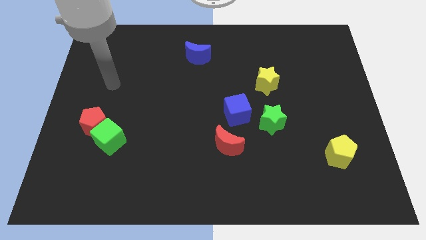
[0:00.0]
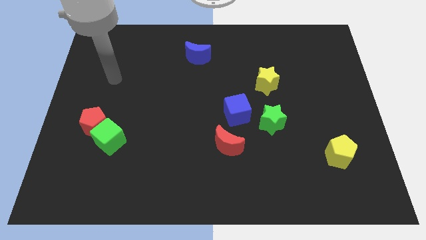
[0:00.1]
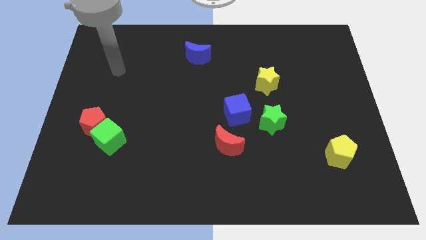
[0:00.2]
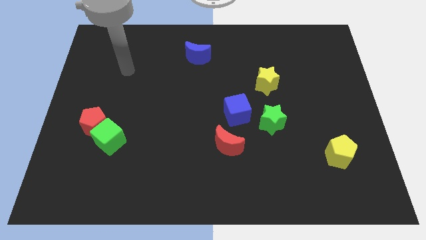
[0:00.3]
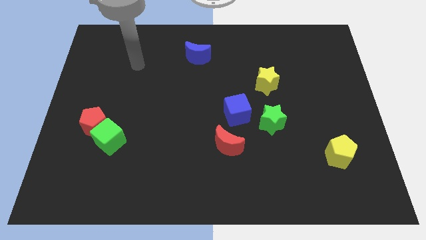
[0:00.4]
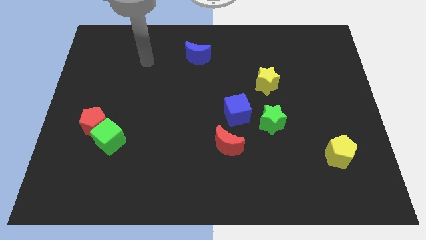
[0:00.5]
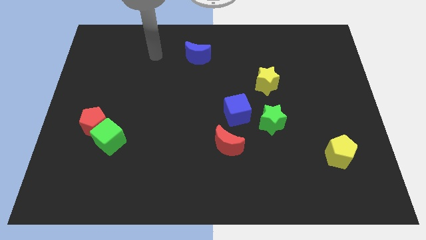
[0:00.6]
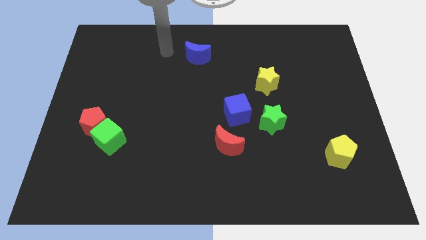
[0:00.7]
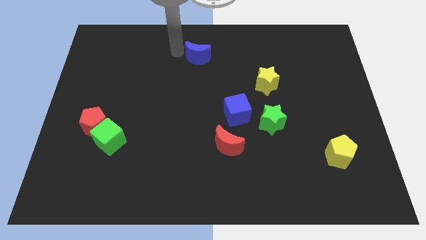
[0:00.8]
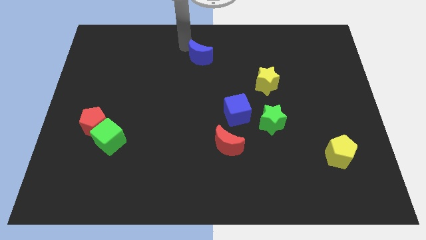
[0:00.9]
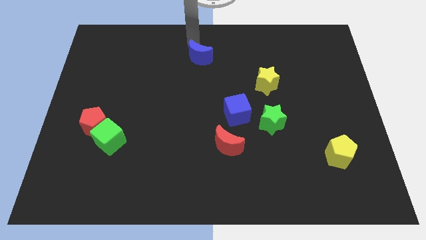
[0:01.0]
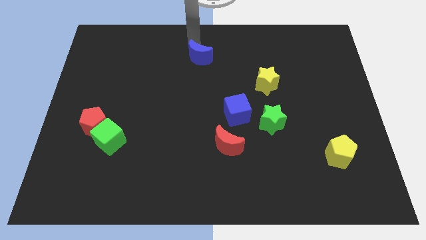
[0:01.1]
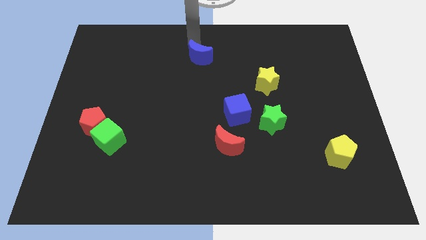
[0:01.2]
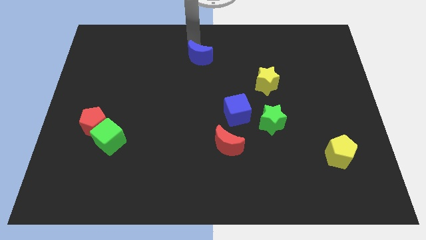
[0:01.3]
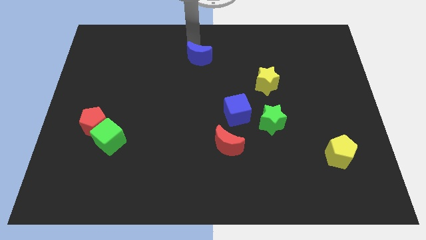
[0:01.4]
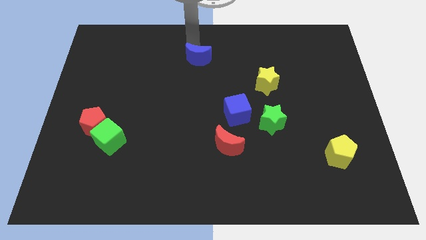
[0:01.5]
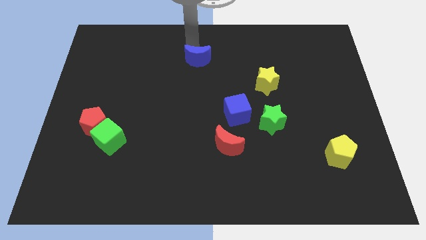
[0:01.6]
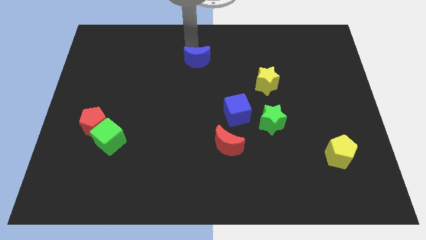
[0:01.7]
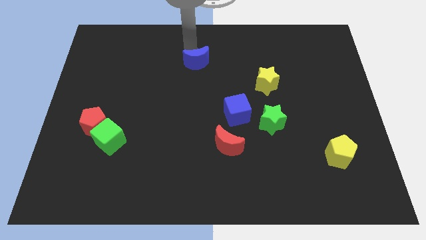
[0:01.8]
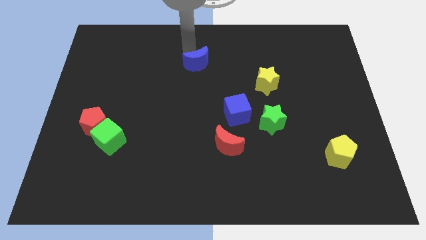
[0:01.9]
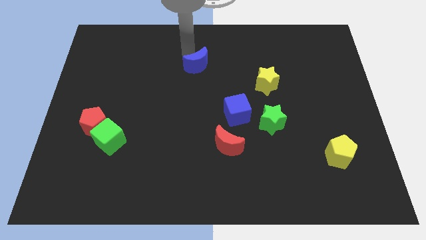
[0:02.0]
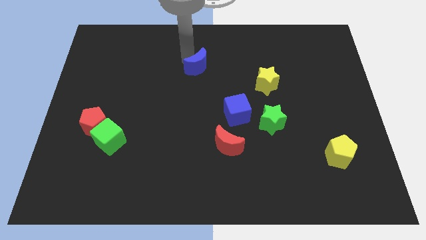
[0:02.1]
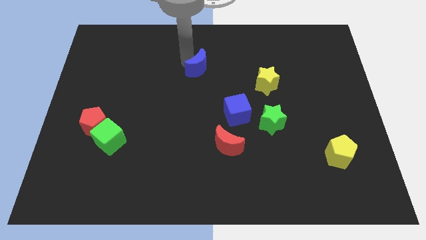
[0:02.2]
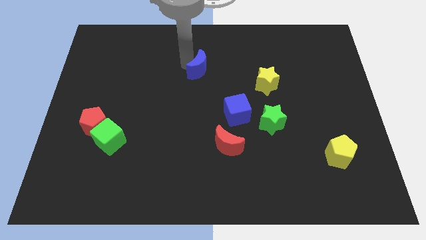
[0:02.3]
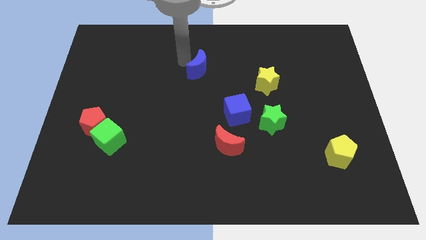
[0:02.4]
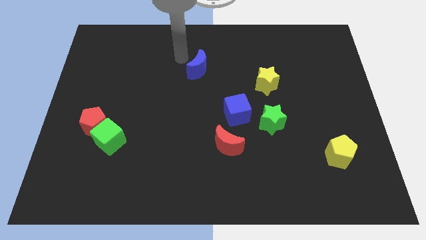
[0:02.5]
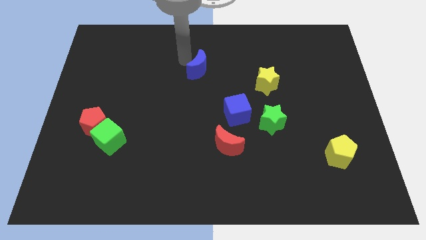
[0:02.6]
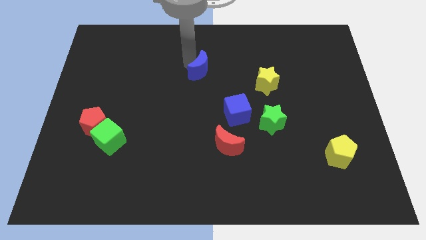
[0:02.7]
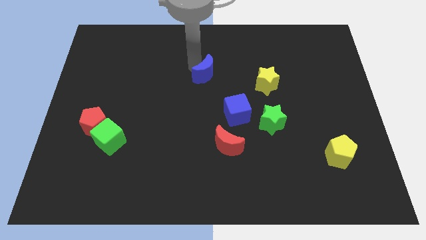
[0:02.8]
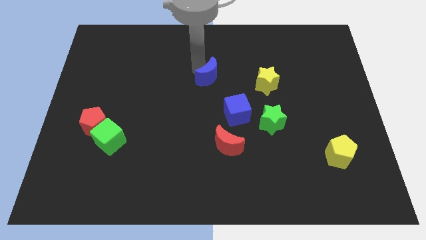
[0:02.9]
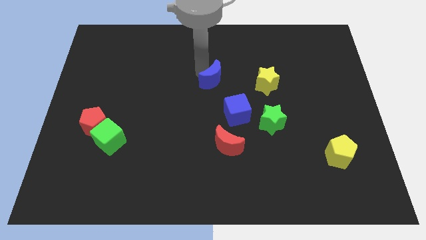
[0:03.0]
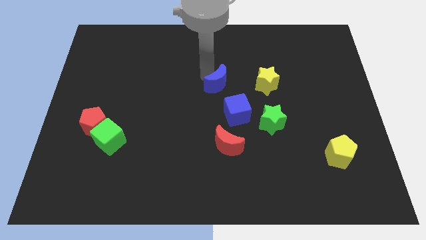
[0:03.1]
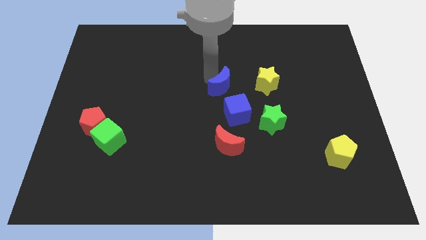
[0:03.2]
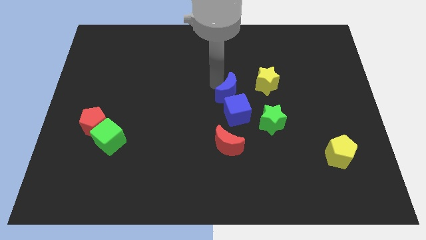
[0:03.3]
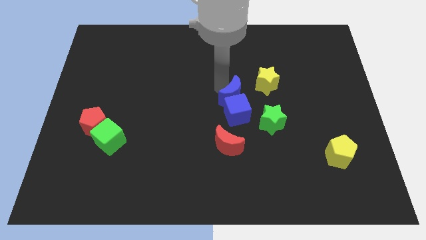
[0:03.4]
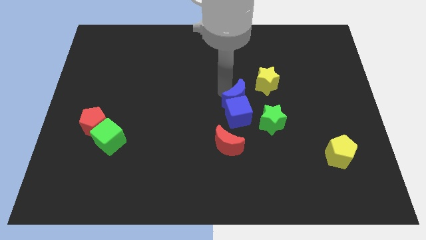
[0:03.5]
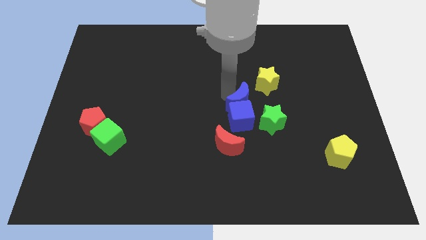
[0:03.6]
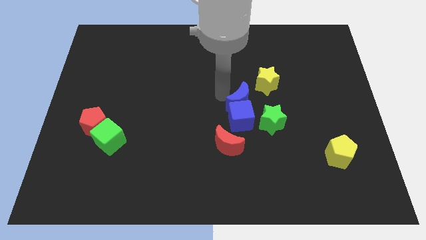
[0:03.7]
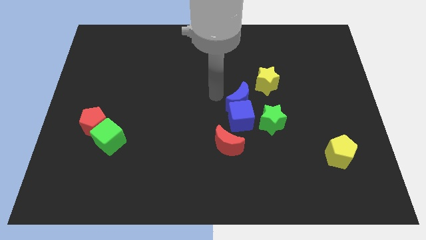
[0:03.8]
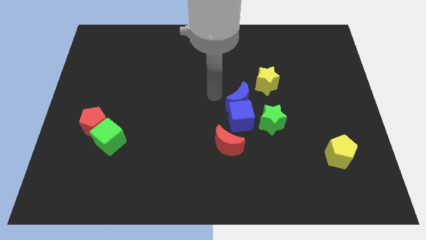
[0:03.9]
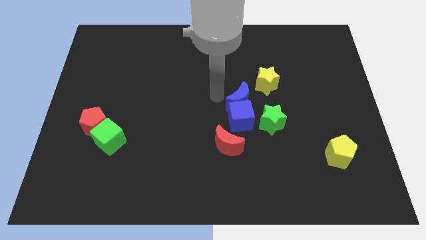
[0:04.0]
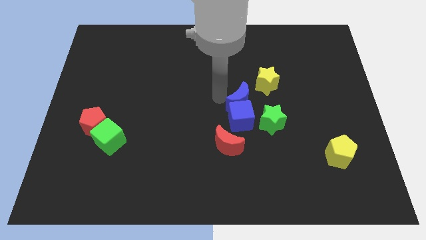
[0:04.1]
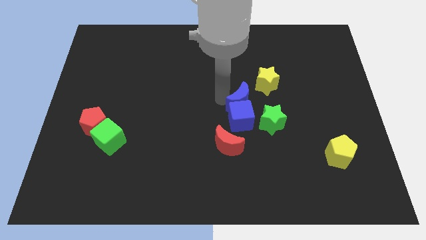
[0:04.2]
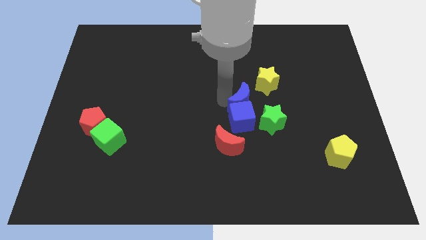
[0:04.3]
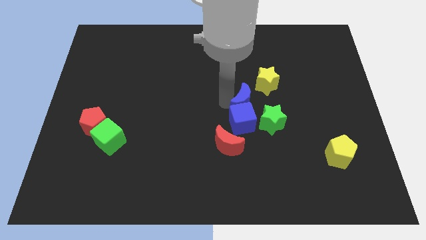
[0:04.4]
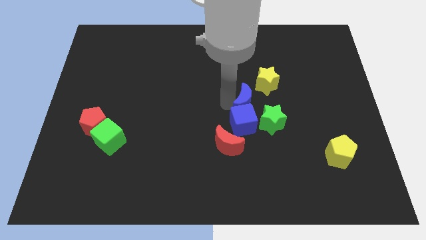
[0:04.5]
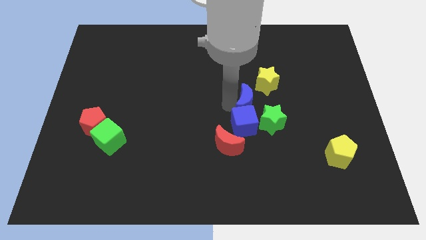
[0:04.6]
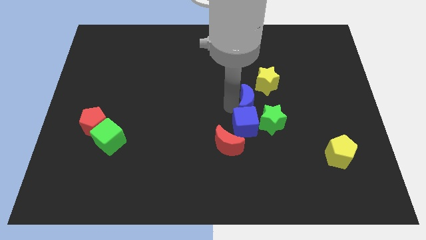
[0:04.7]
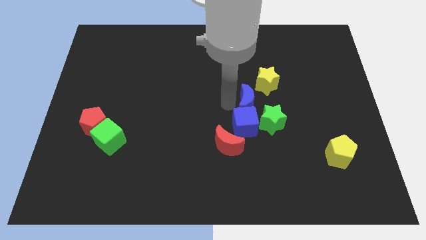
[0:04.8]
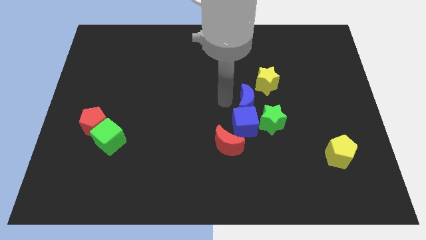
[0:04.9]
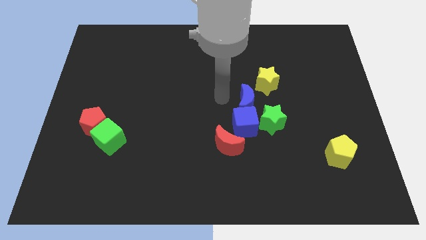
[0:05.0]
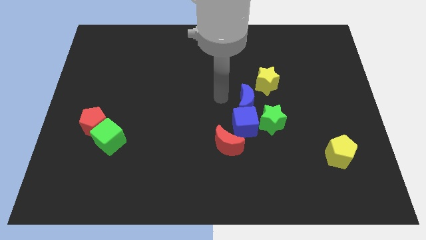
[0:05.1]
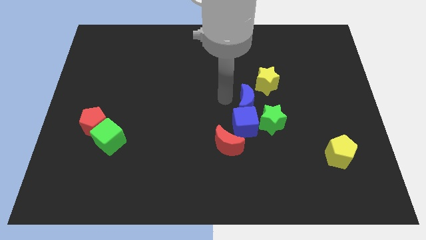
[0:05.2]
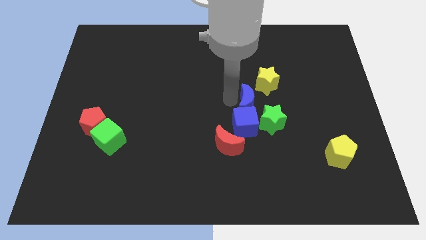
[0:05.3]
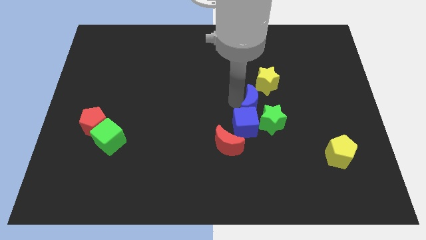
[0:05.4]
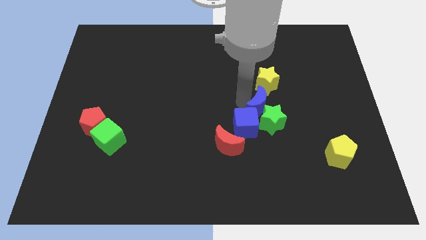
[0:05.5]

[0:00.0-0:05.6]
push the blue moon close to the green star

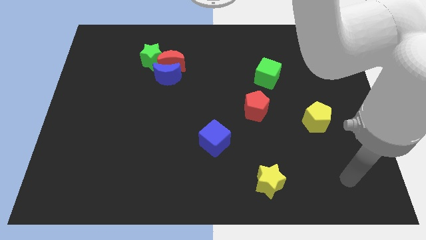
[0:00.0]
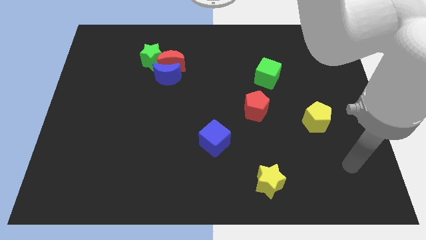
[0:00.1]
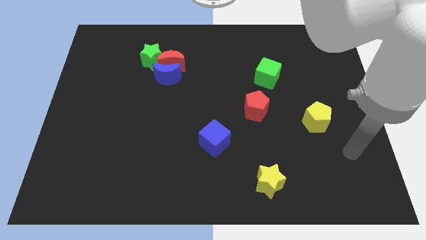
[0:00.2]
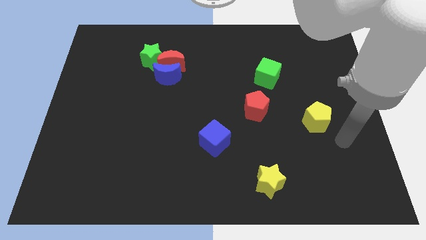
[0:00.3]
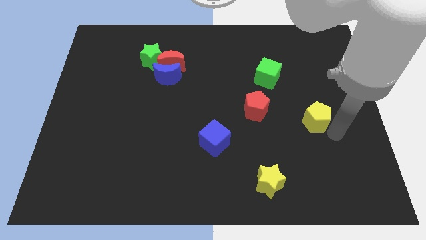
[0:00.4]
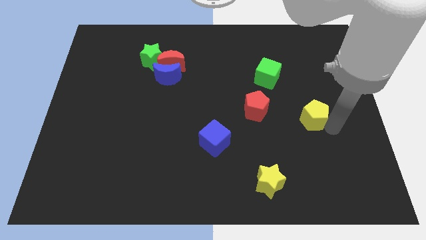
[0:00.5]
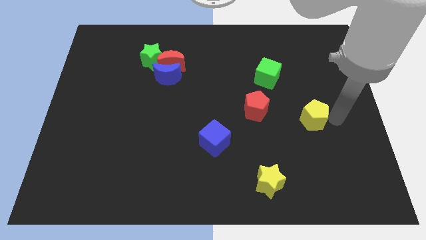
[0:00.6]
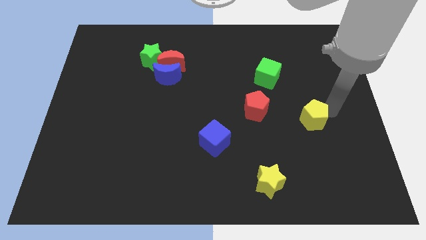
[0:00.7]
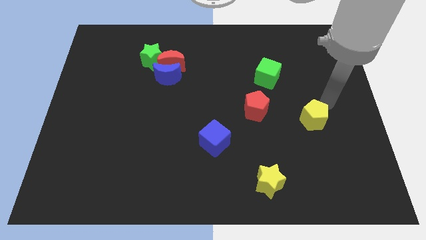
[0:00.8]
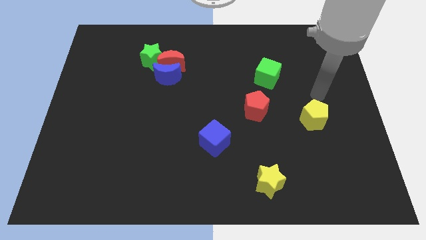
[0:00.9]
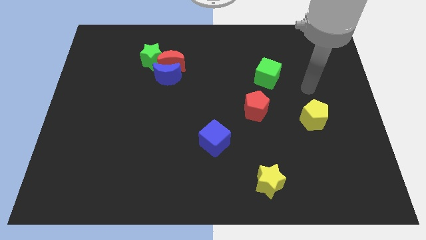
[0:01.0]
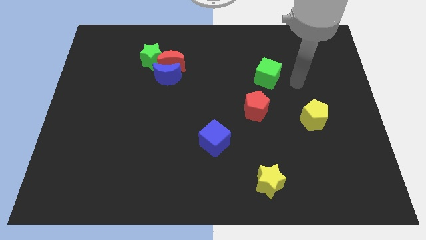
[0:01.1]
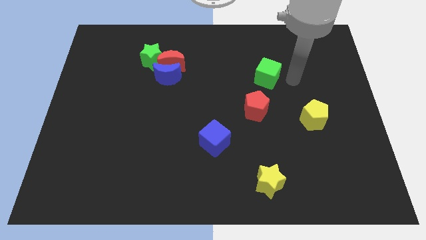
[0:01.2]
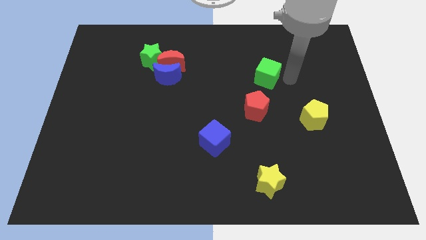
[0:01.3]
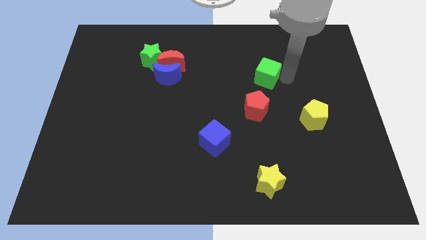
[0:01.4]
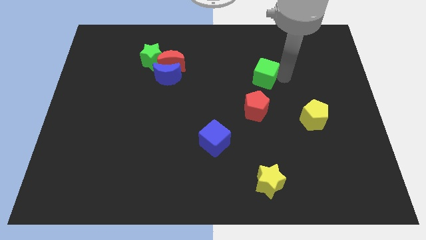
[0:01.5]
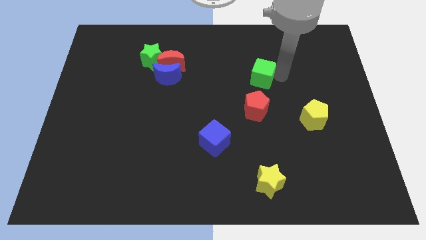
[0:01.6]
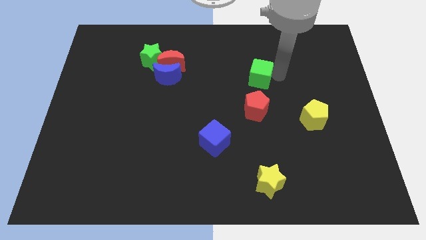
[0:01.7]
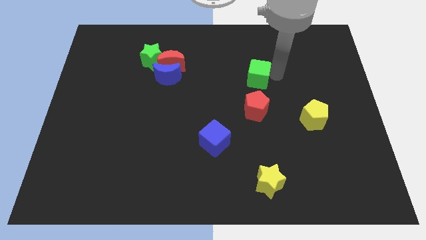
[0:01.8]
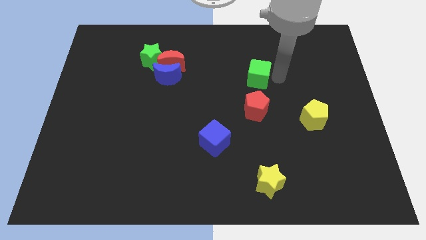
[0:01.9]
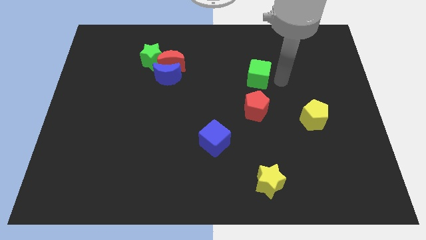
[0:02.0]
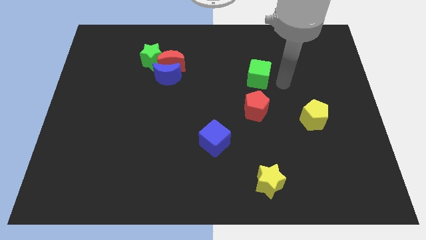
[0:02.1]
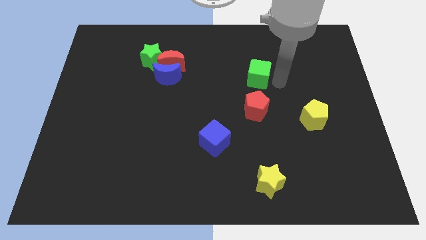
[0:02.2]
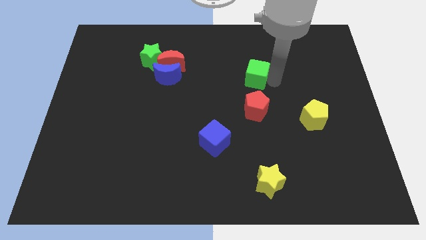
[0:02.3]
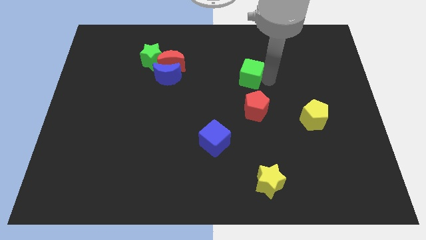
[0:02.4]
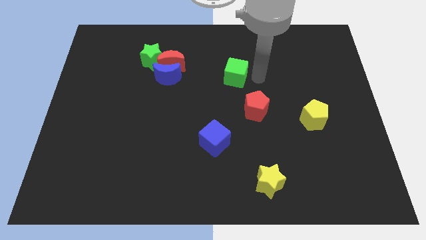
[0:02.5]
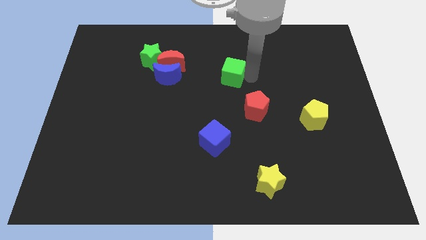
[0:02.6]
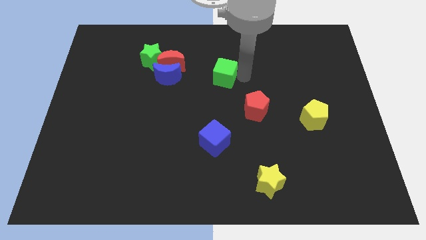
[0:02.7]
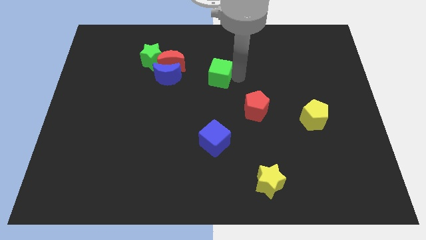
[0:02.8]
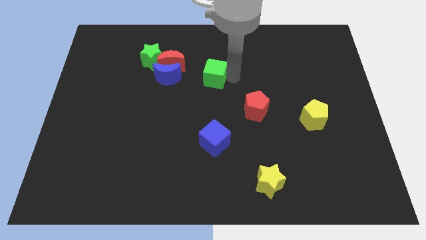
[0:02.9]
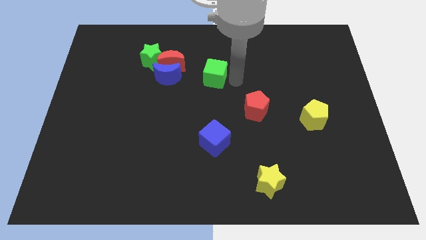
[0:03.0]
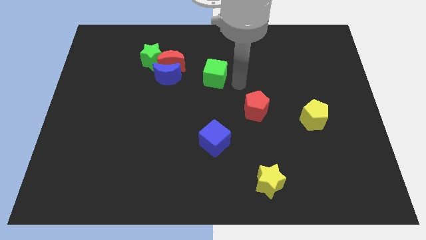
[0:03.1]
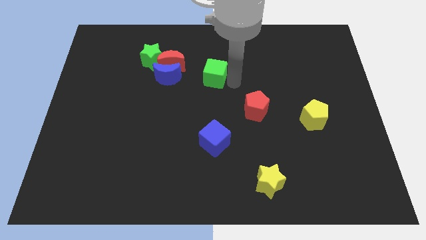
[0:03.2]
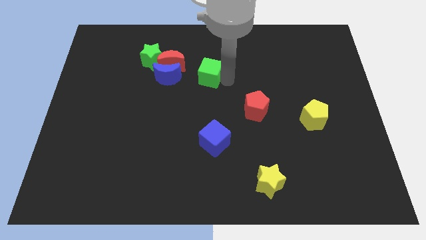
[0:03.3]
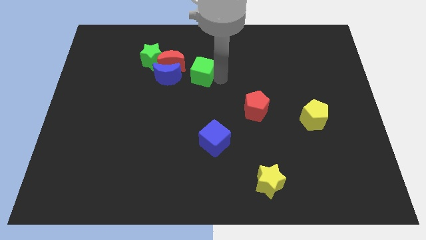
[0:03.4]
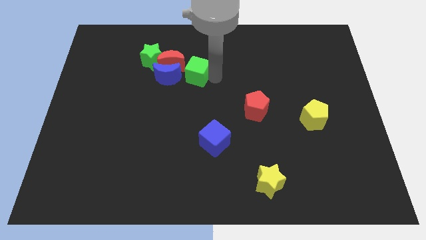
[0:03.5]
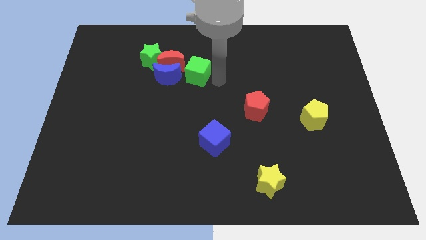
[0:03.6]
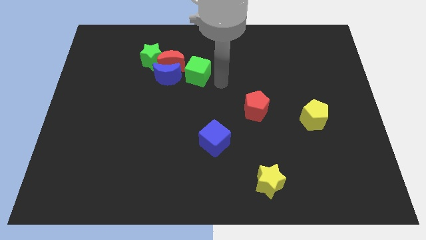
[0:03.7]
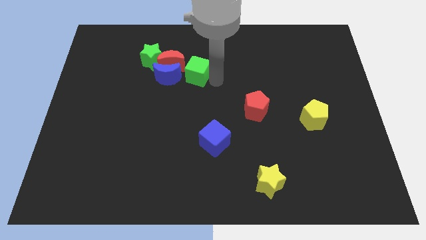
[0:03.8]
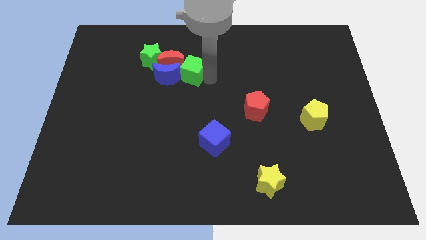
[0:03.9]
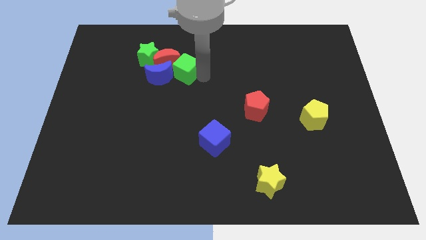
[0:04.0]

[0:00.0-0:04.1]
push the green cube to the red moon
